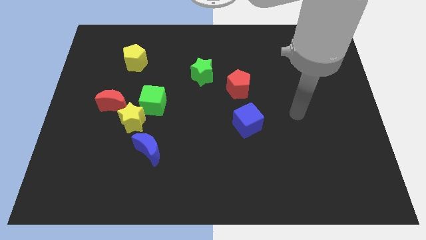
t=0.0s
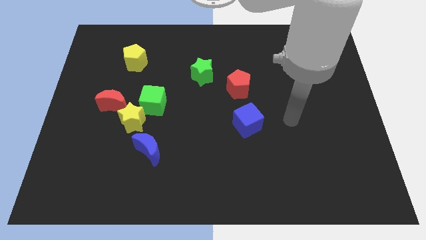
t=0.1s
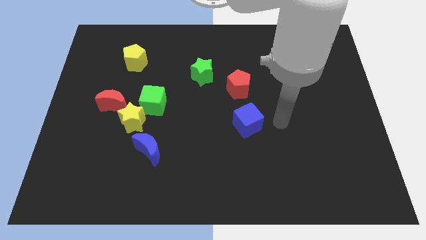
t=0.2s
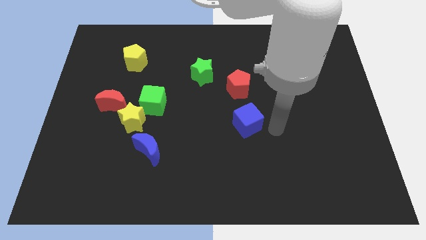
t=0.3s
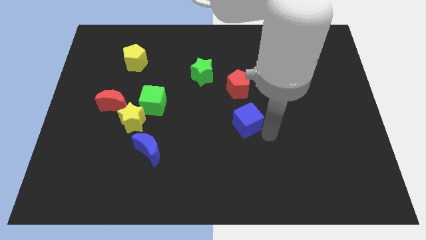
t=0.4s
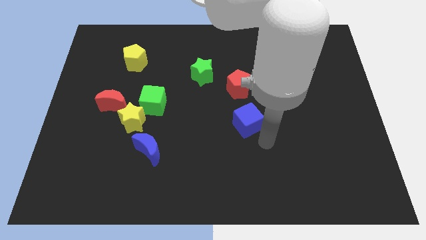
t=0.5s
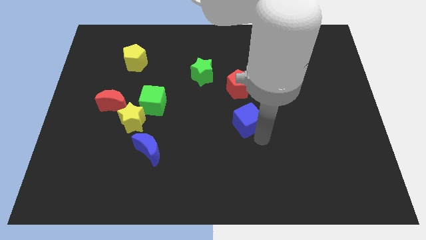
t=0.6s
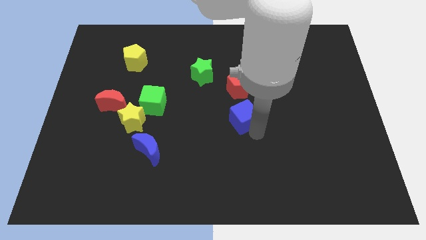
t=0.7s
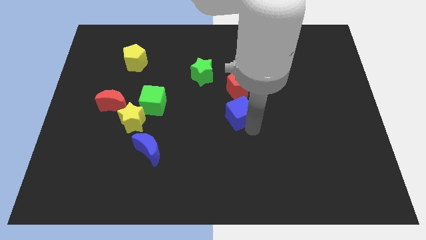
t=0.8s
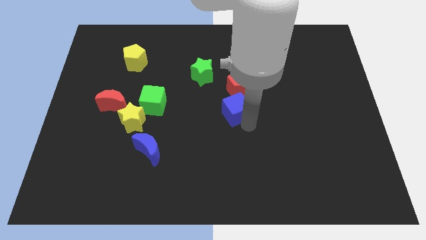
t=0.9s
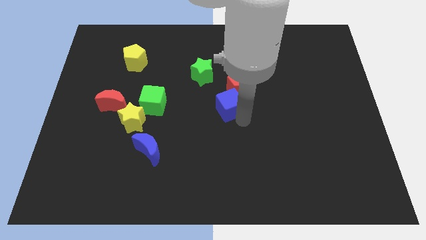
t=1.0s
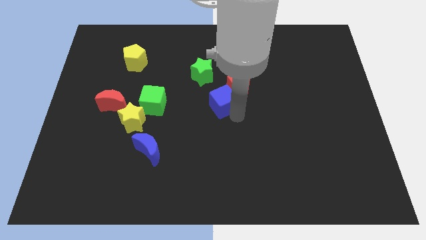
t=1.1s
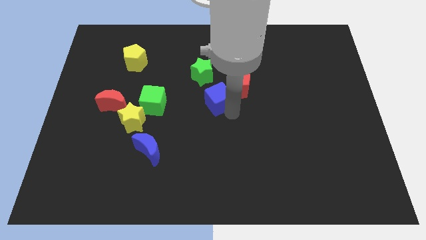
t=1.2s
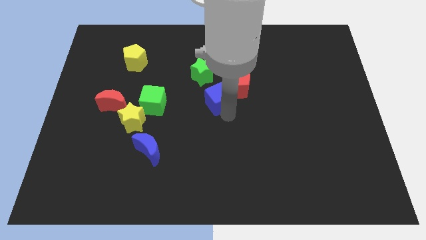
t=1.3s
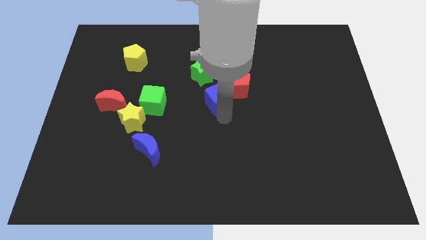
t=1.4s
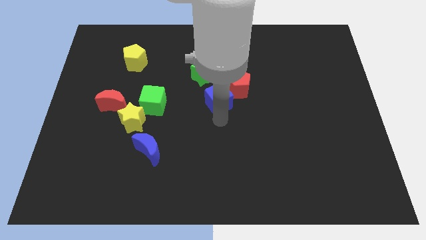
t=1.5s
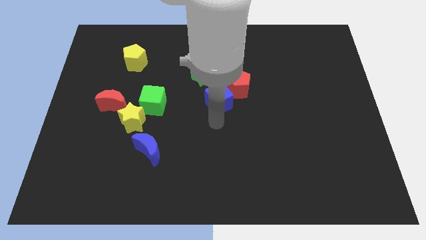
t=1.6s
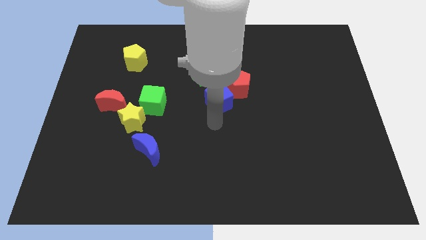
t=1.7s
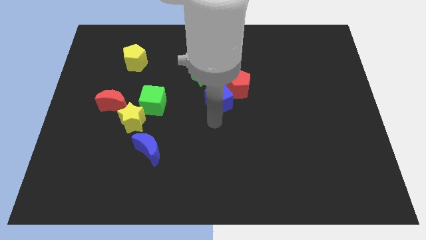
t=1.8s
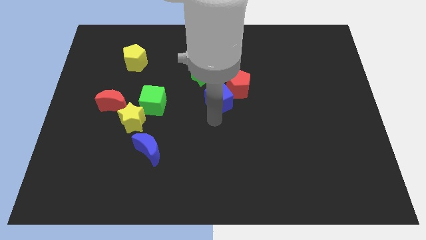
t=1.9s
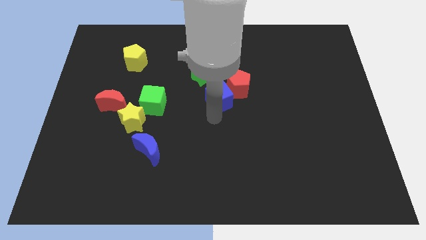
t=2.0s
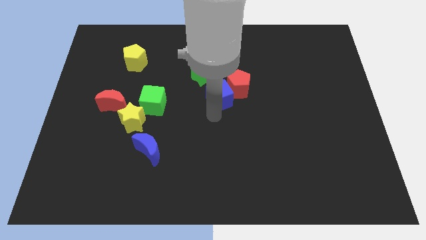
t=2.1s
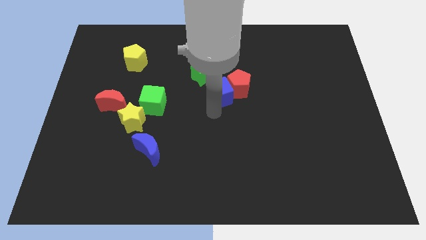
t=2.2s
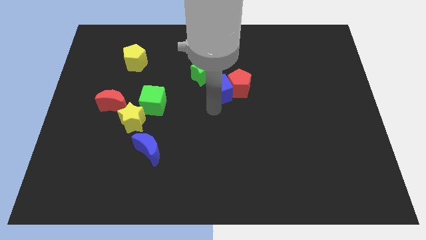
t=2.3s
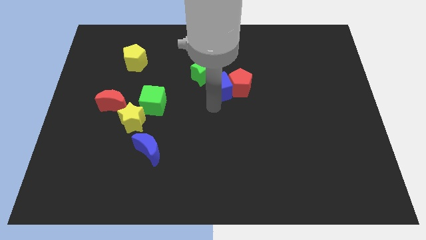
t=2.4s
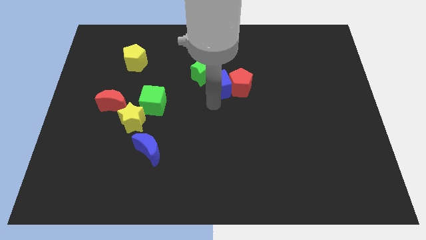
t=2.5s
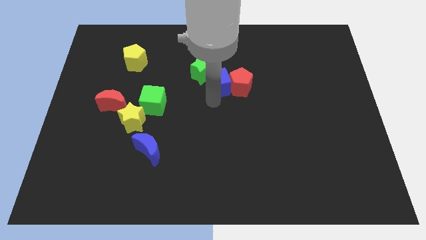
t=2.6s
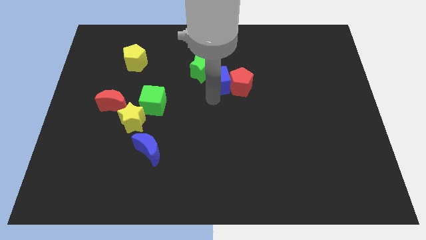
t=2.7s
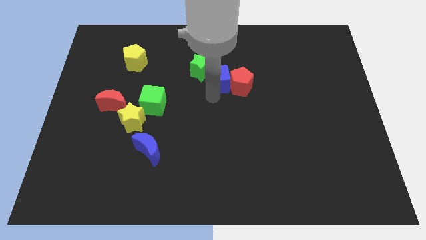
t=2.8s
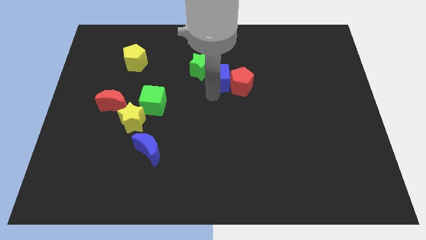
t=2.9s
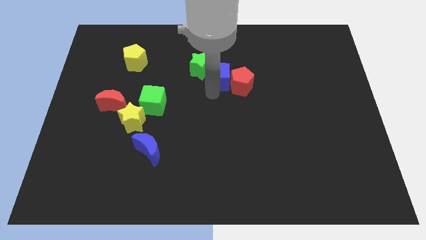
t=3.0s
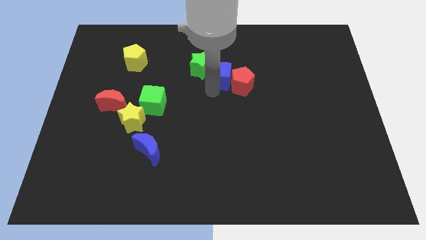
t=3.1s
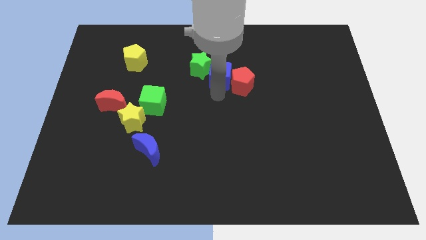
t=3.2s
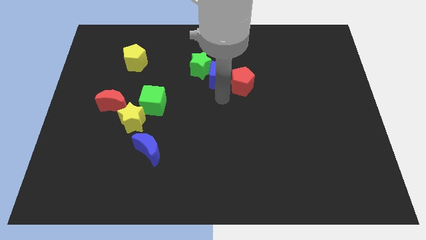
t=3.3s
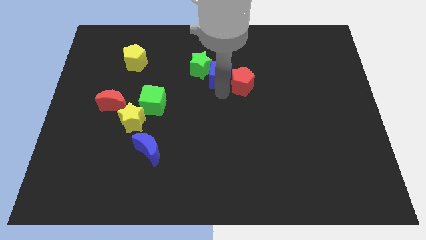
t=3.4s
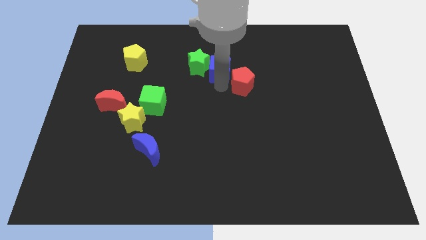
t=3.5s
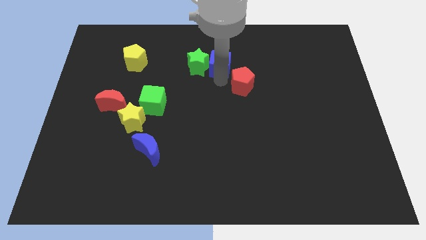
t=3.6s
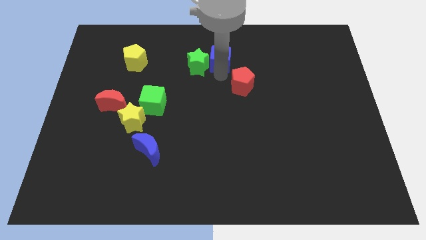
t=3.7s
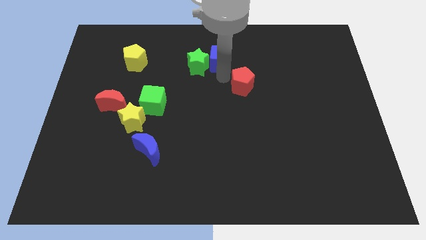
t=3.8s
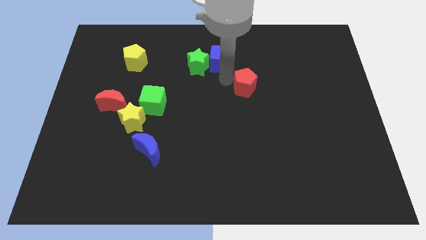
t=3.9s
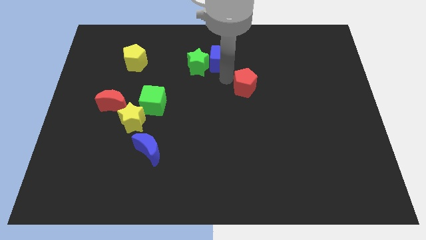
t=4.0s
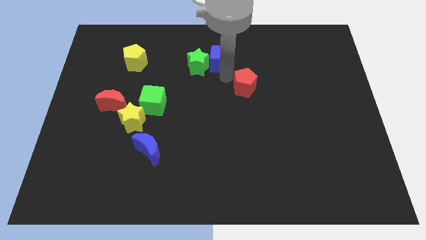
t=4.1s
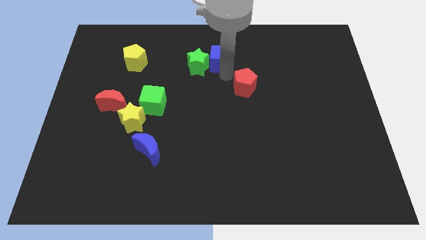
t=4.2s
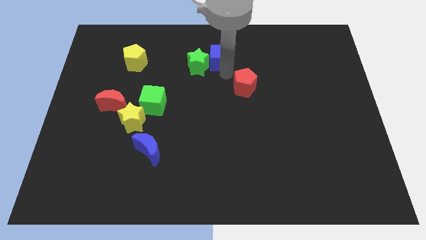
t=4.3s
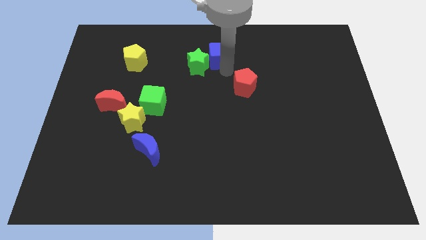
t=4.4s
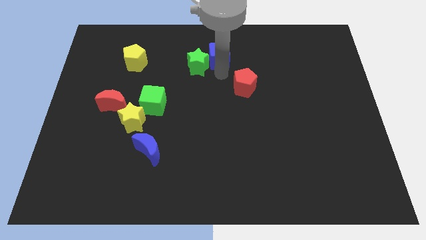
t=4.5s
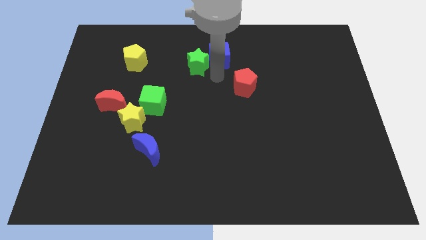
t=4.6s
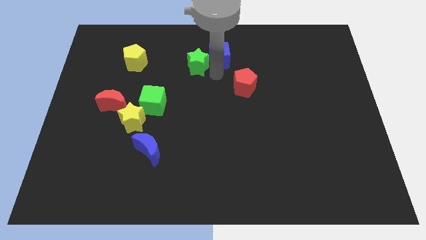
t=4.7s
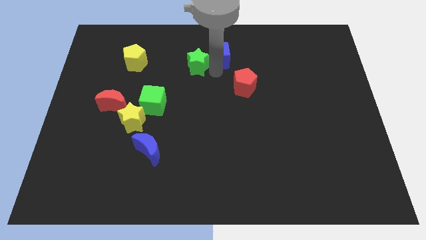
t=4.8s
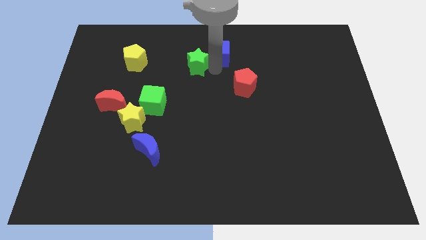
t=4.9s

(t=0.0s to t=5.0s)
move the blue cube to the top side

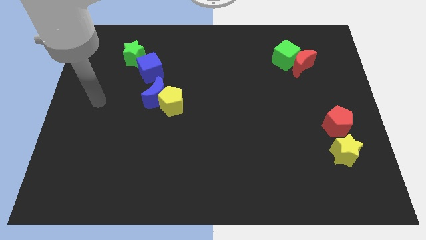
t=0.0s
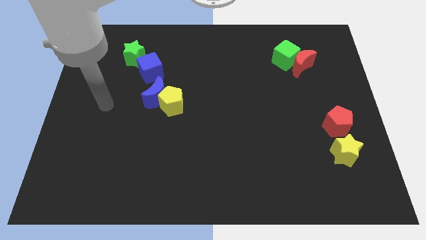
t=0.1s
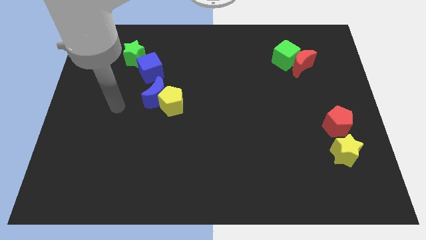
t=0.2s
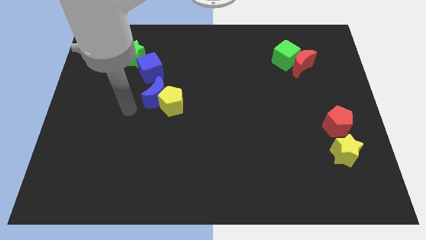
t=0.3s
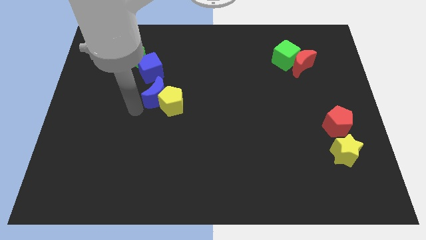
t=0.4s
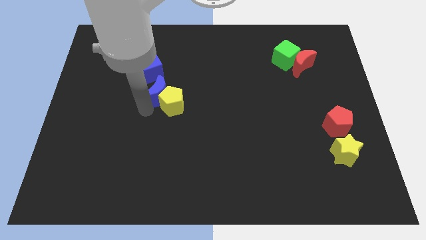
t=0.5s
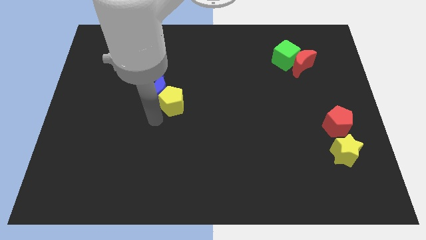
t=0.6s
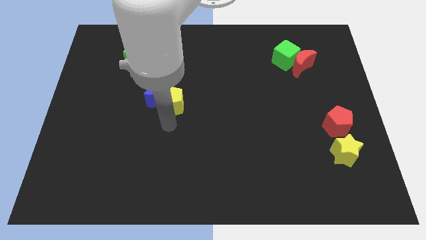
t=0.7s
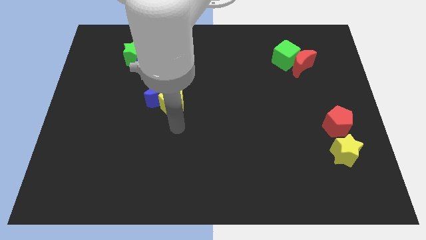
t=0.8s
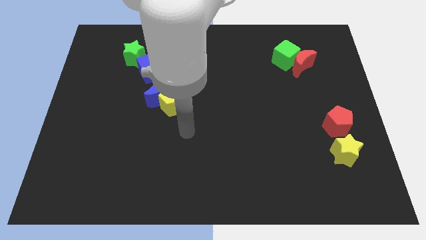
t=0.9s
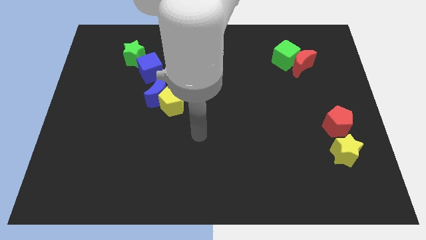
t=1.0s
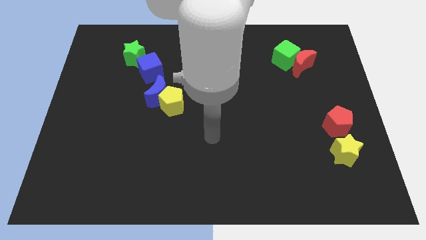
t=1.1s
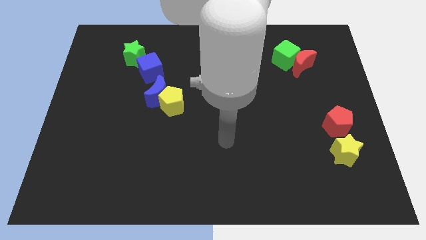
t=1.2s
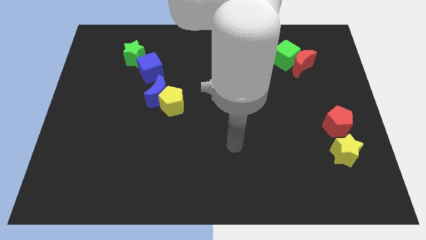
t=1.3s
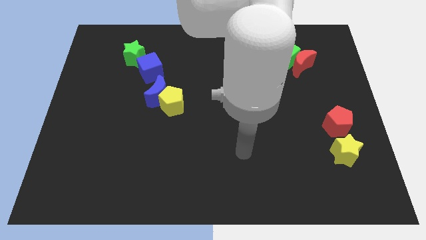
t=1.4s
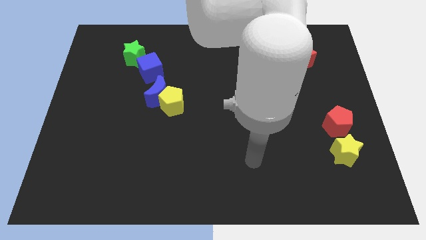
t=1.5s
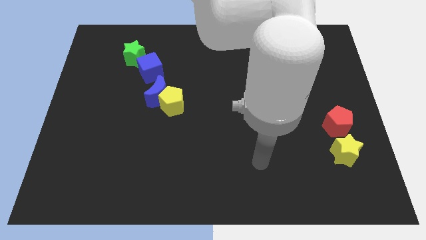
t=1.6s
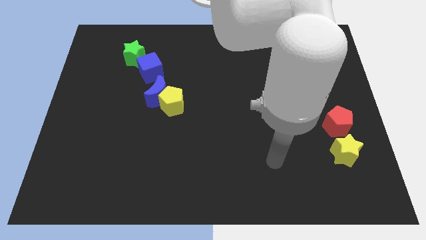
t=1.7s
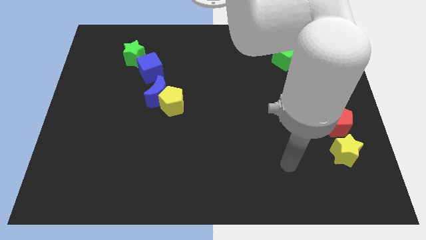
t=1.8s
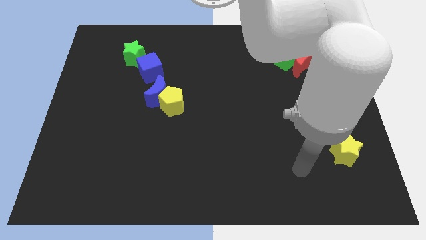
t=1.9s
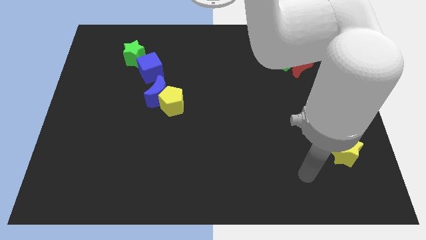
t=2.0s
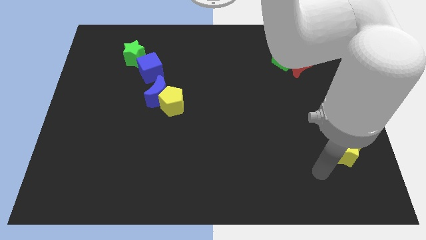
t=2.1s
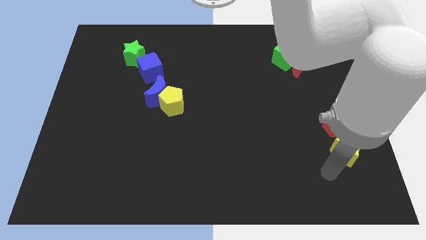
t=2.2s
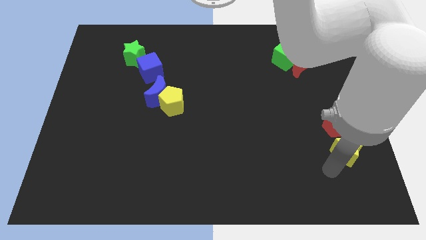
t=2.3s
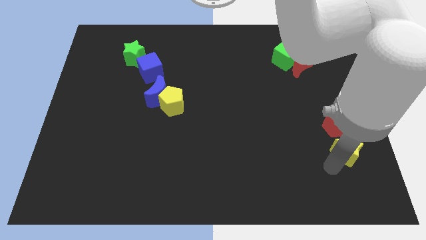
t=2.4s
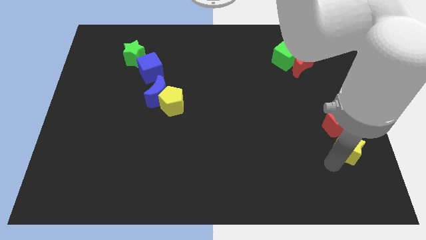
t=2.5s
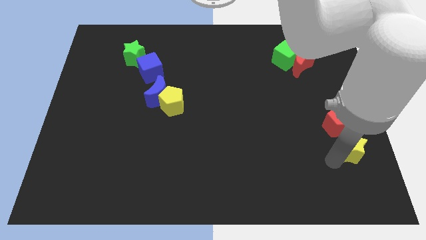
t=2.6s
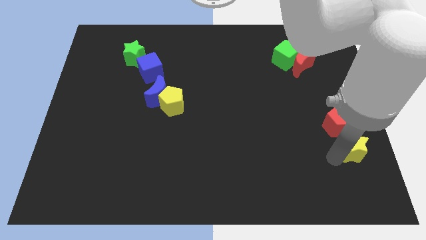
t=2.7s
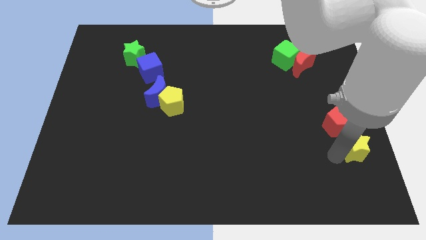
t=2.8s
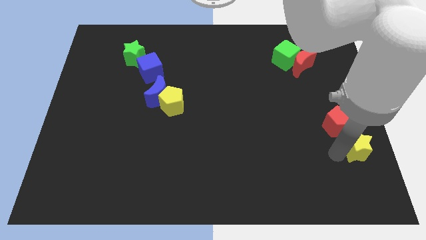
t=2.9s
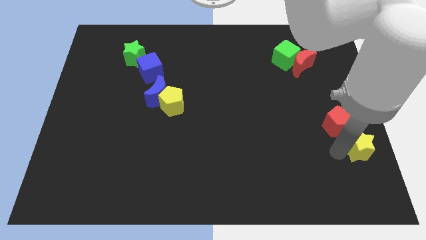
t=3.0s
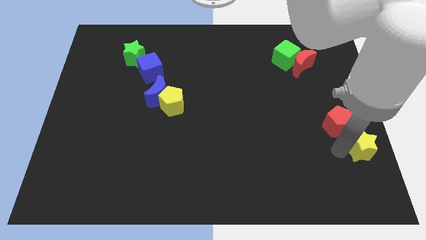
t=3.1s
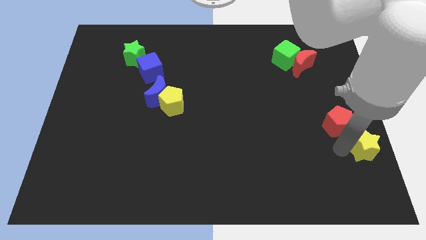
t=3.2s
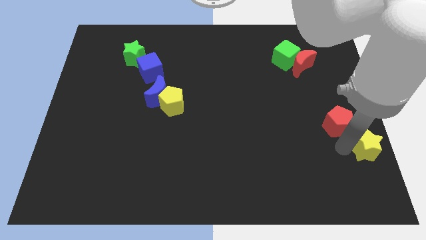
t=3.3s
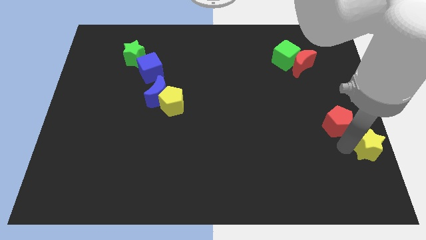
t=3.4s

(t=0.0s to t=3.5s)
put the yellow star to the right side of the board
